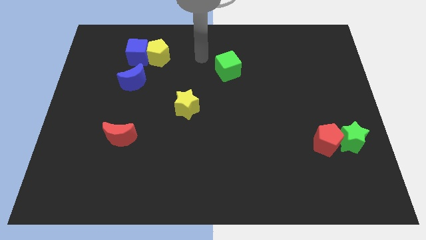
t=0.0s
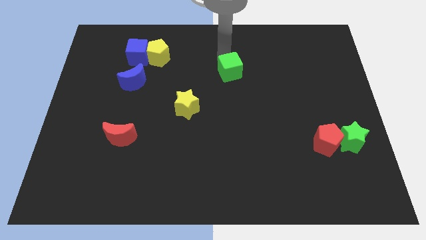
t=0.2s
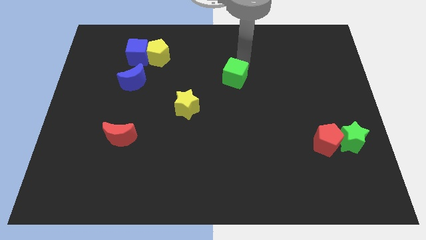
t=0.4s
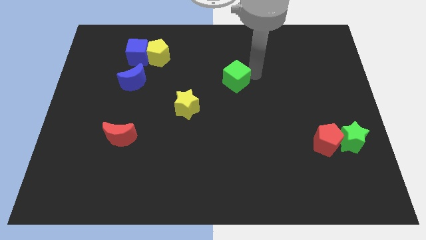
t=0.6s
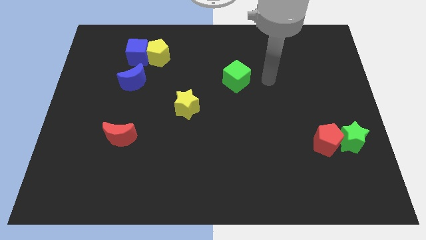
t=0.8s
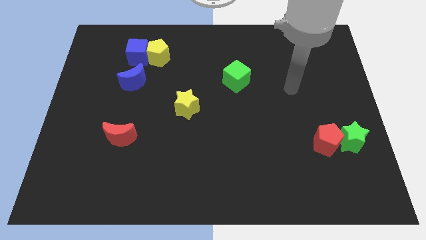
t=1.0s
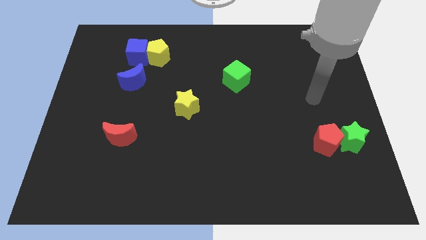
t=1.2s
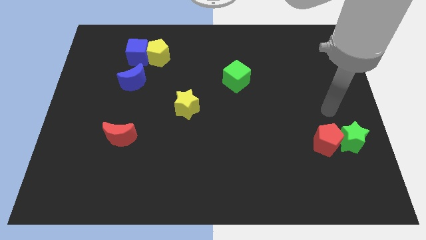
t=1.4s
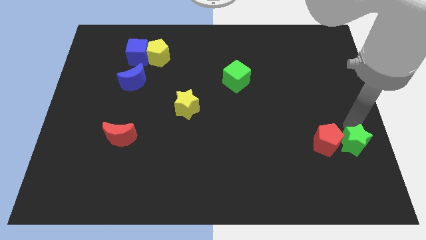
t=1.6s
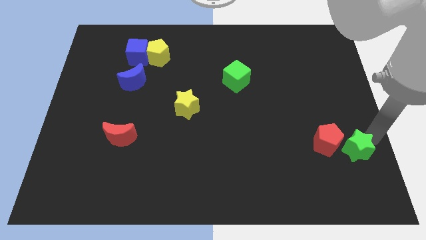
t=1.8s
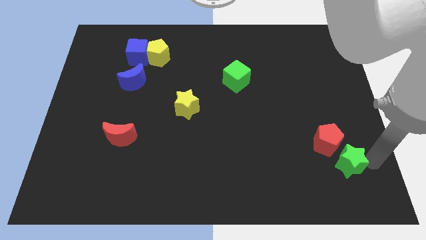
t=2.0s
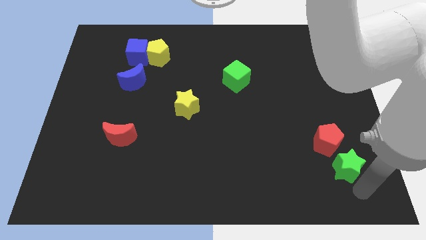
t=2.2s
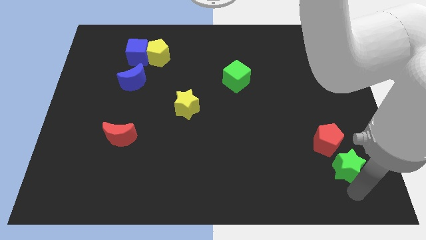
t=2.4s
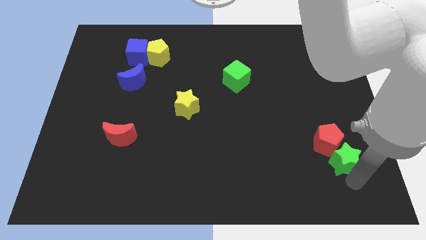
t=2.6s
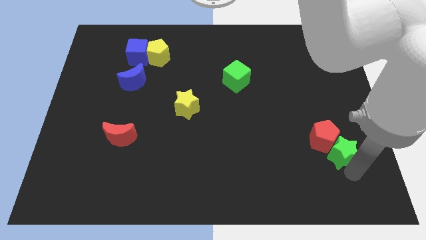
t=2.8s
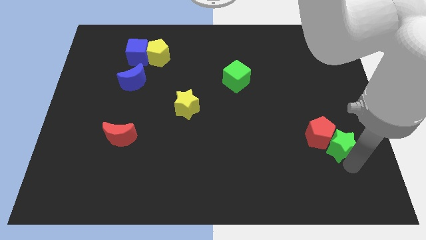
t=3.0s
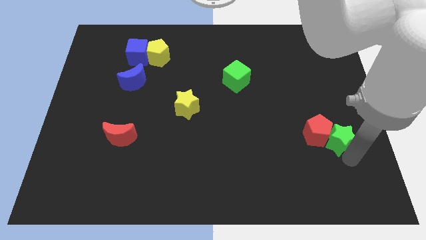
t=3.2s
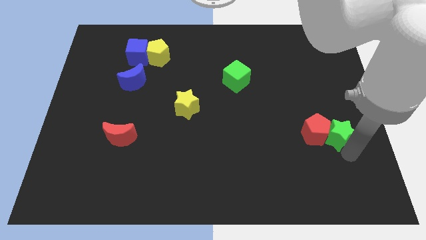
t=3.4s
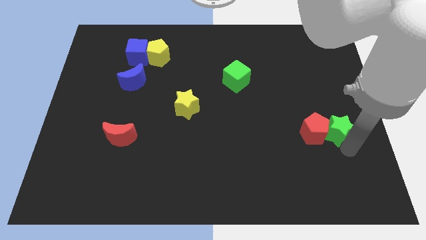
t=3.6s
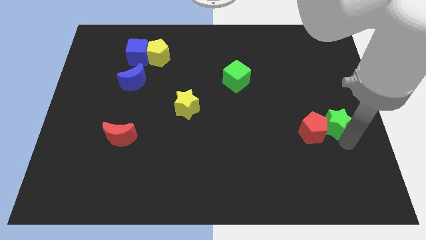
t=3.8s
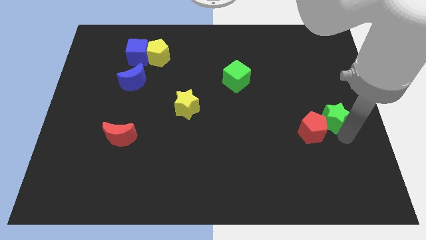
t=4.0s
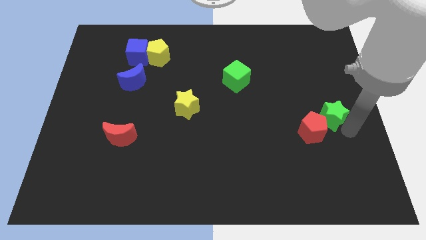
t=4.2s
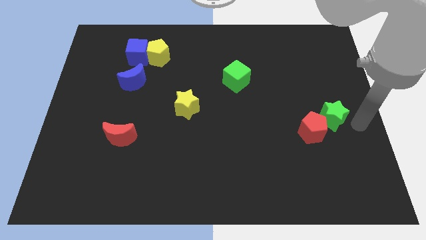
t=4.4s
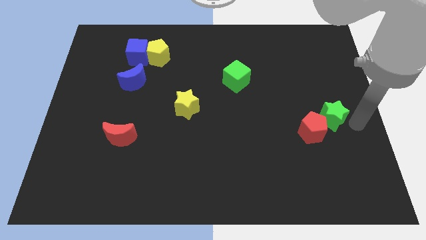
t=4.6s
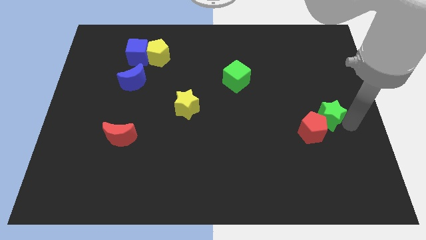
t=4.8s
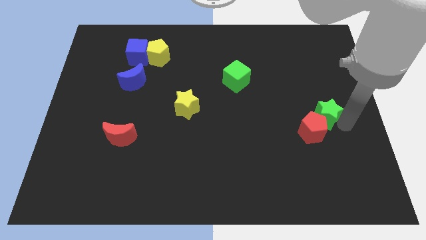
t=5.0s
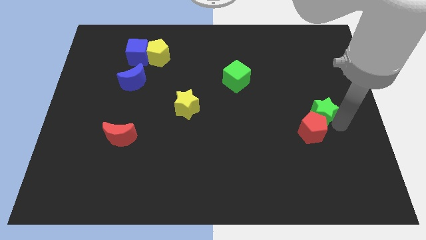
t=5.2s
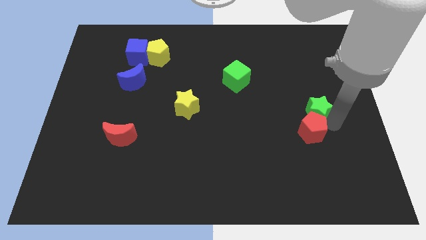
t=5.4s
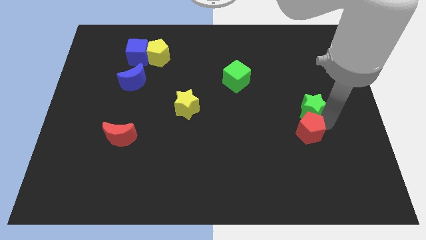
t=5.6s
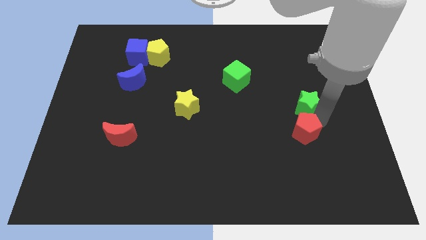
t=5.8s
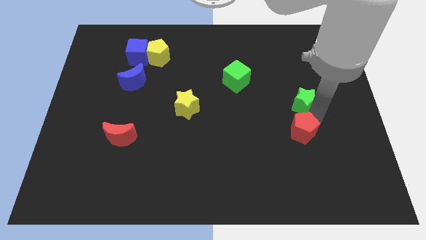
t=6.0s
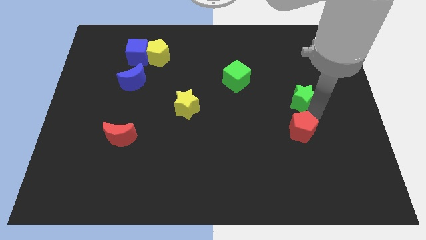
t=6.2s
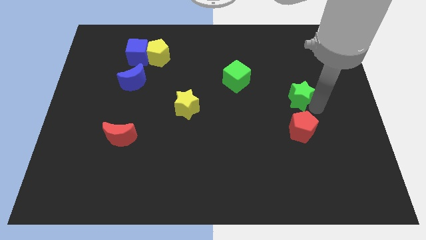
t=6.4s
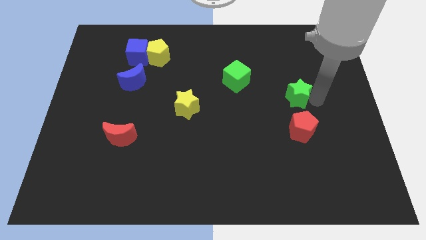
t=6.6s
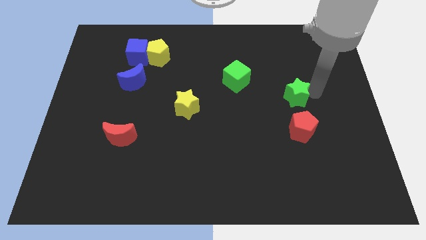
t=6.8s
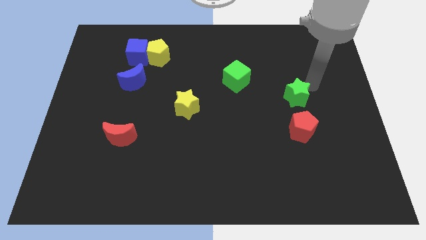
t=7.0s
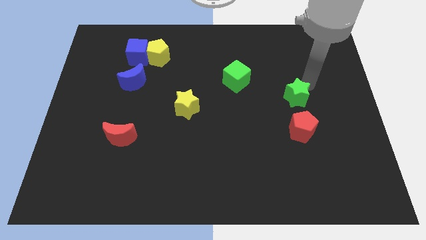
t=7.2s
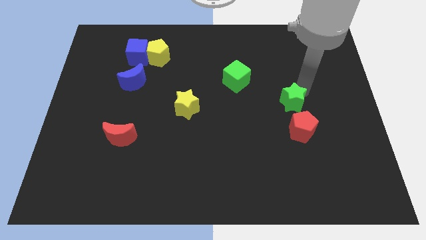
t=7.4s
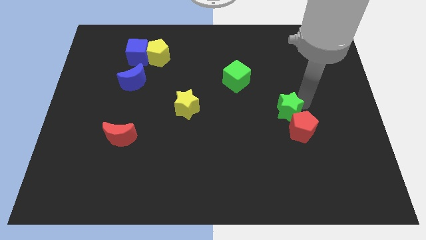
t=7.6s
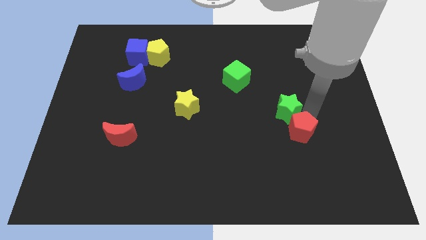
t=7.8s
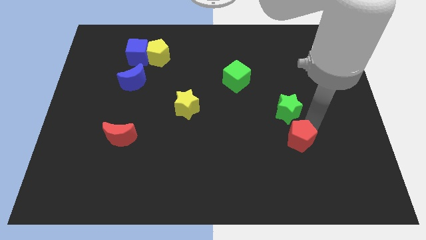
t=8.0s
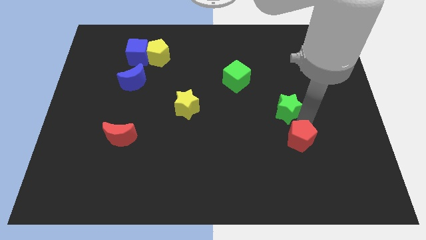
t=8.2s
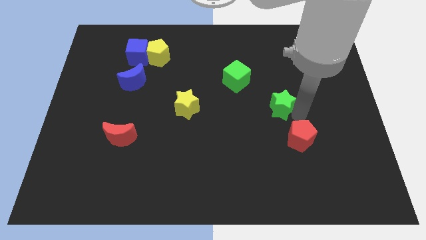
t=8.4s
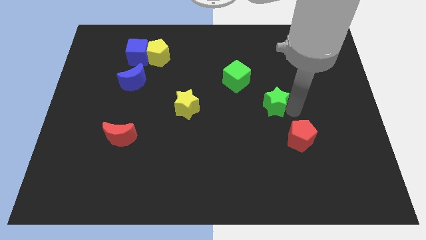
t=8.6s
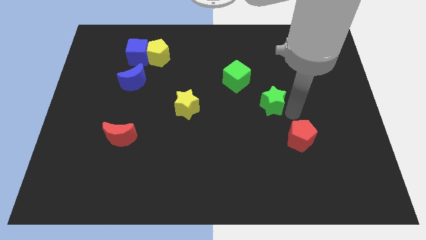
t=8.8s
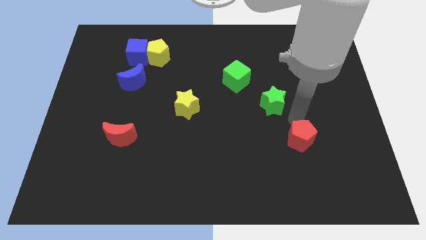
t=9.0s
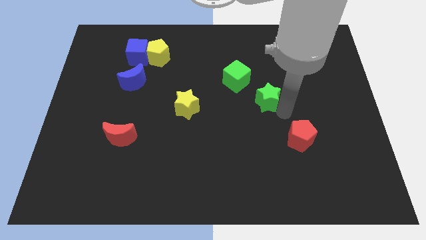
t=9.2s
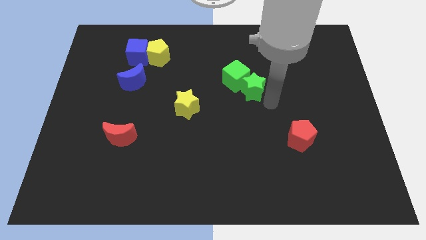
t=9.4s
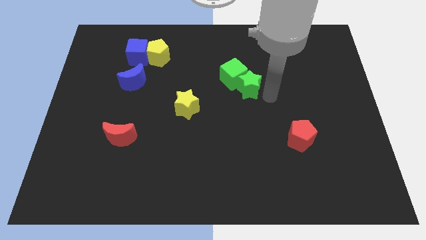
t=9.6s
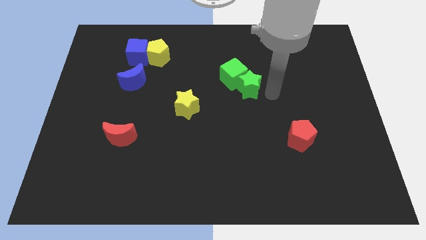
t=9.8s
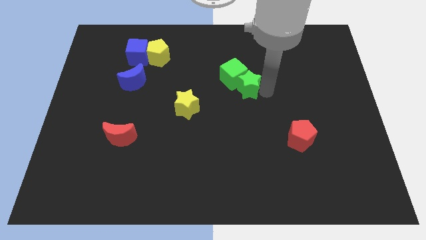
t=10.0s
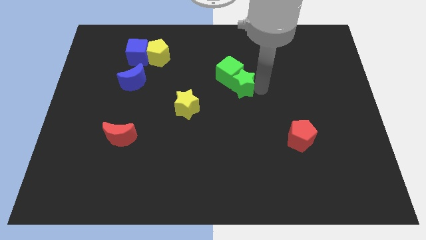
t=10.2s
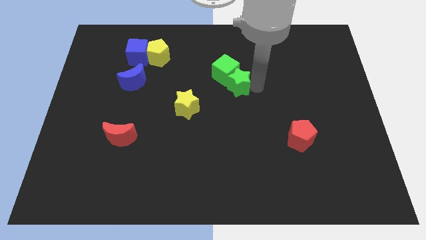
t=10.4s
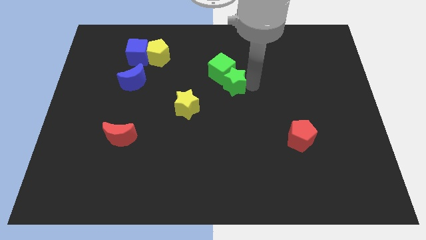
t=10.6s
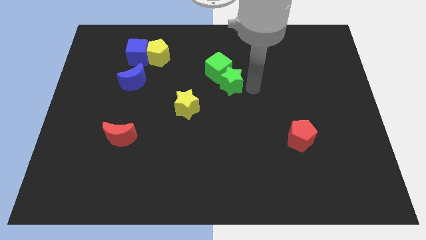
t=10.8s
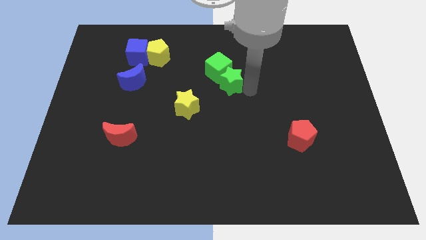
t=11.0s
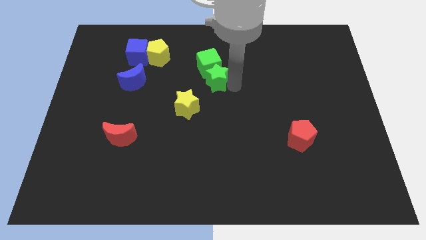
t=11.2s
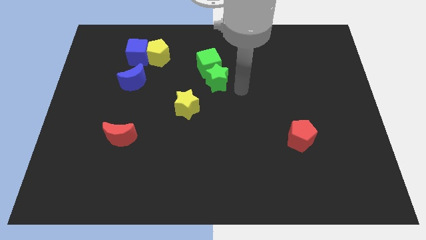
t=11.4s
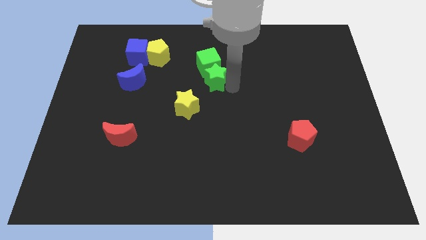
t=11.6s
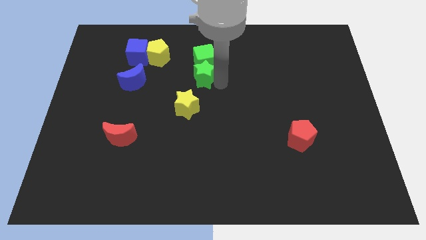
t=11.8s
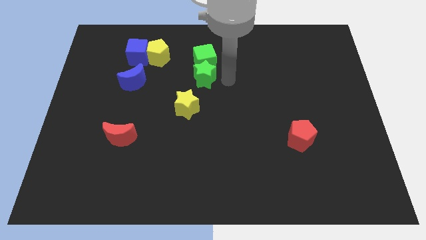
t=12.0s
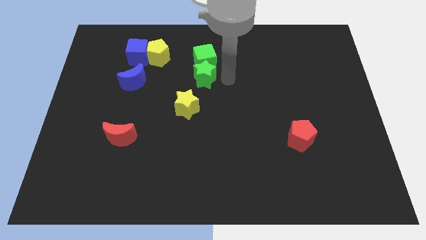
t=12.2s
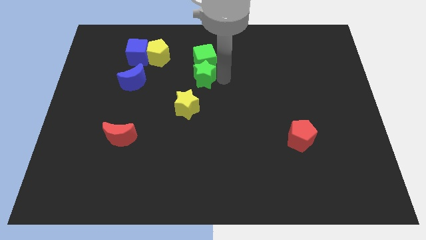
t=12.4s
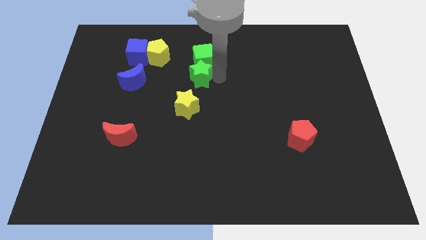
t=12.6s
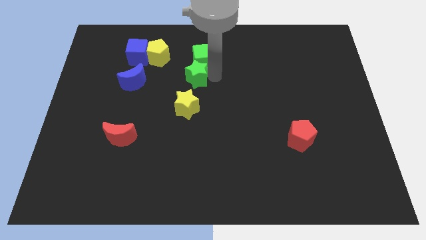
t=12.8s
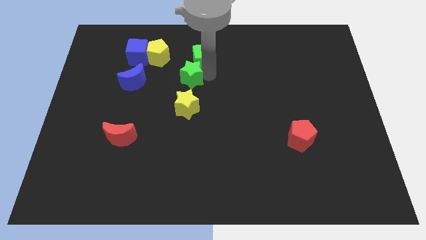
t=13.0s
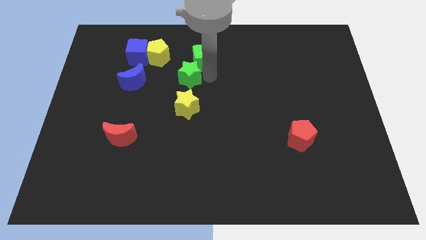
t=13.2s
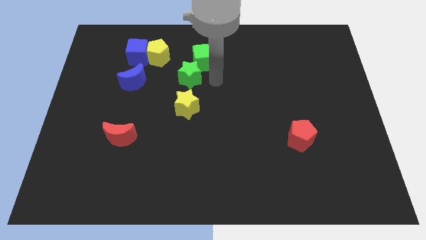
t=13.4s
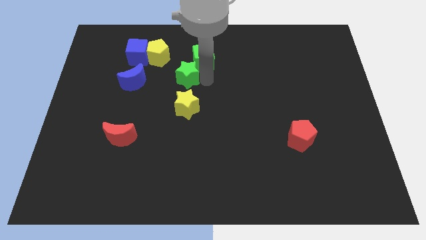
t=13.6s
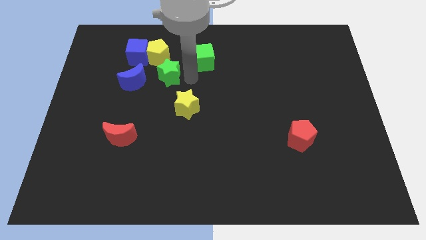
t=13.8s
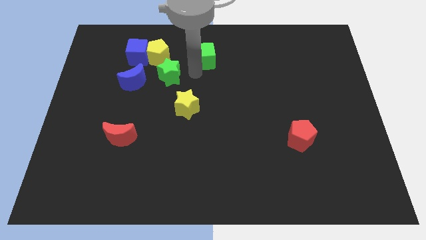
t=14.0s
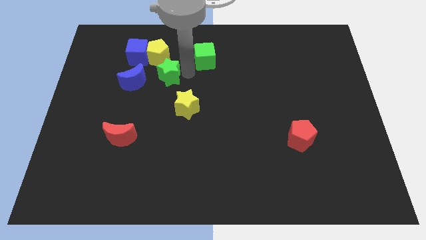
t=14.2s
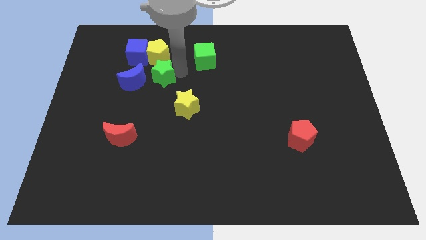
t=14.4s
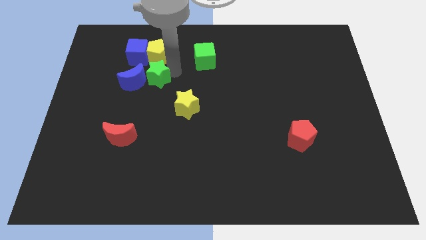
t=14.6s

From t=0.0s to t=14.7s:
put the green star to the blue moon

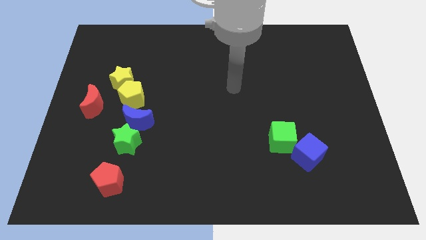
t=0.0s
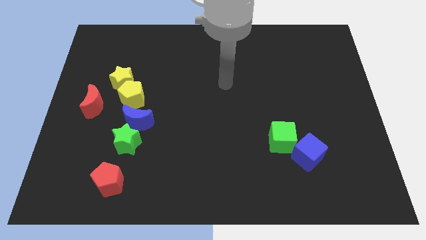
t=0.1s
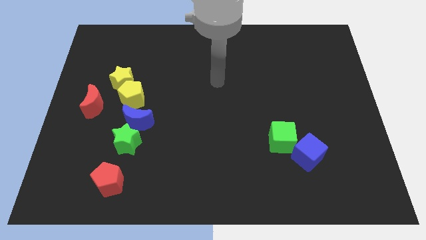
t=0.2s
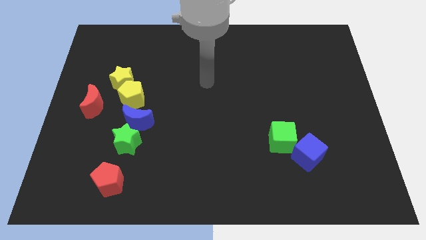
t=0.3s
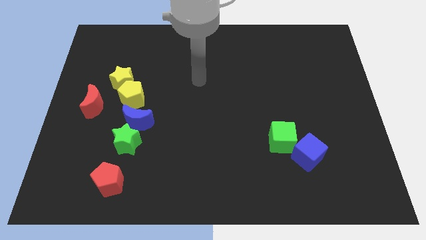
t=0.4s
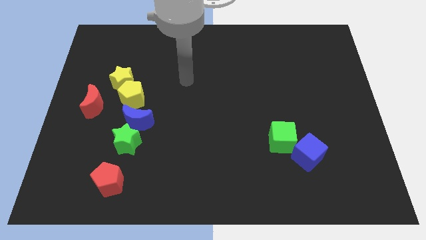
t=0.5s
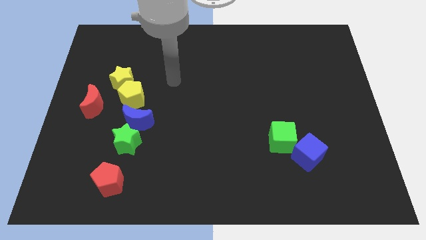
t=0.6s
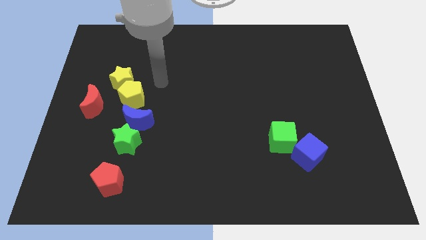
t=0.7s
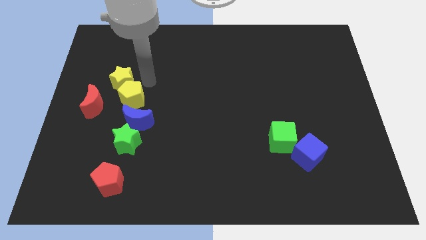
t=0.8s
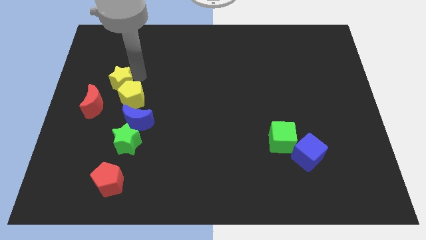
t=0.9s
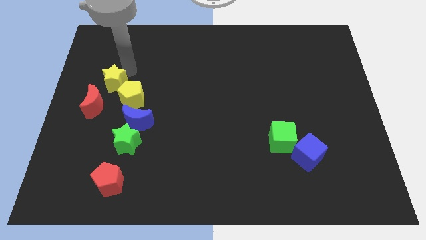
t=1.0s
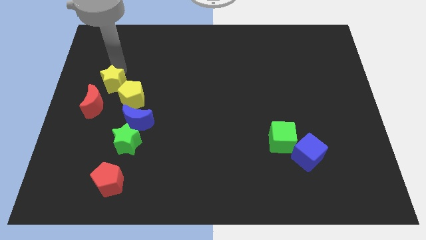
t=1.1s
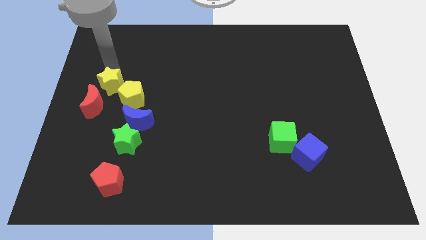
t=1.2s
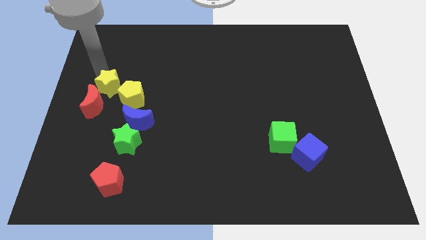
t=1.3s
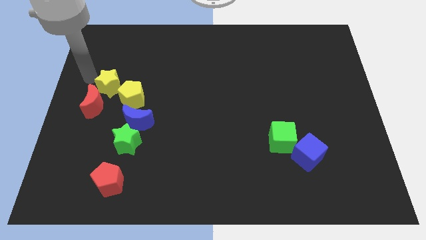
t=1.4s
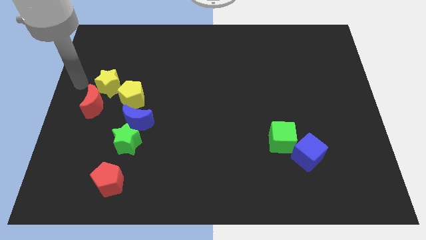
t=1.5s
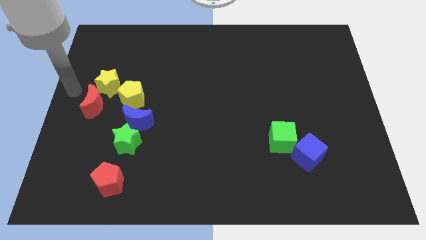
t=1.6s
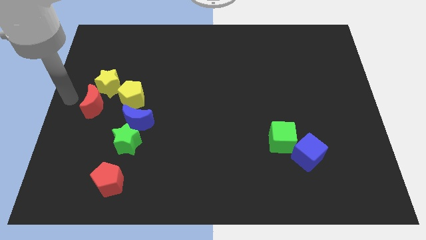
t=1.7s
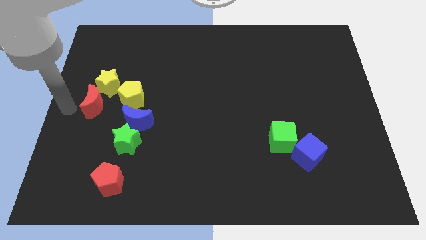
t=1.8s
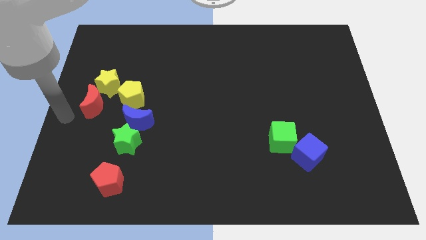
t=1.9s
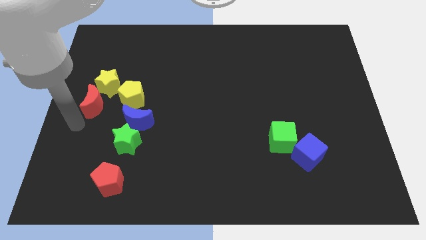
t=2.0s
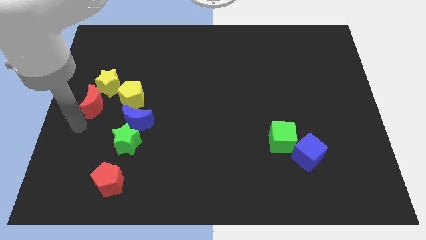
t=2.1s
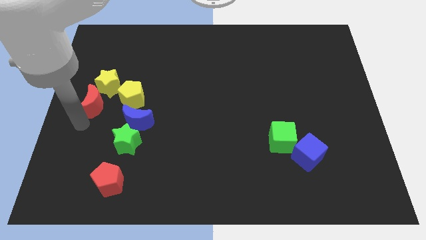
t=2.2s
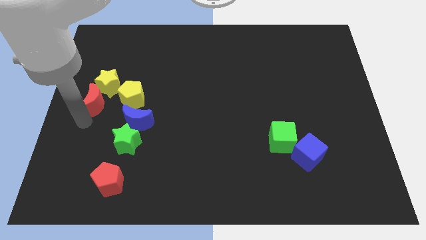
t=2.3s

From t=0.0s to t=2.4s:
push the red moon towards the yellow star
